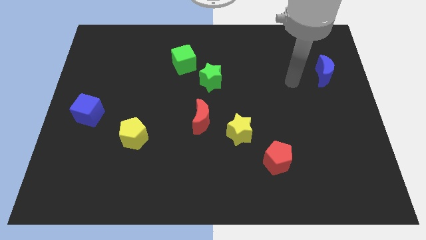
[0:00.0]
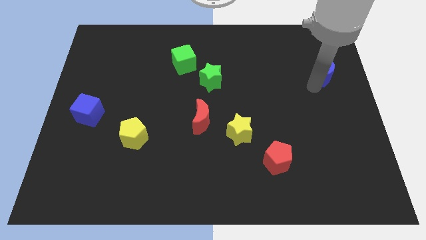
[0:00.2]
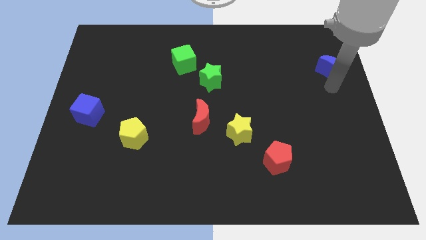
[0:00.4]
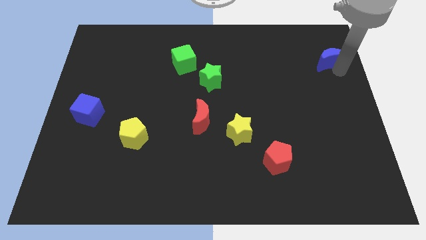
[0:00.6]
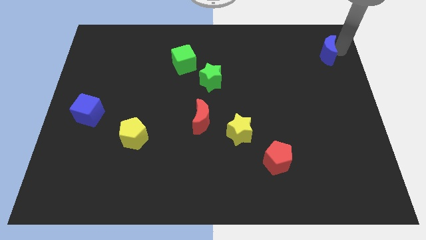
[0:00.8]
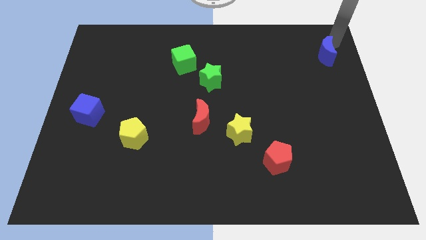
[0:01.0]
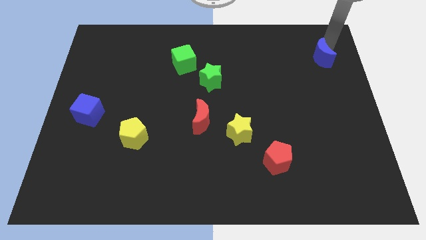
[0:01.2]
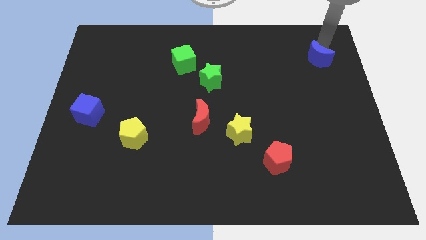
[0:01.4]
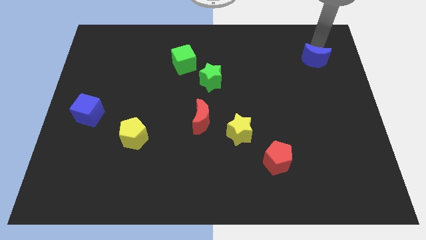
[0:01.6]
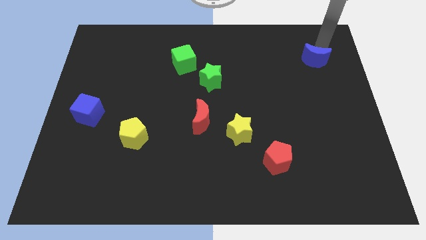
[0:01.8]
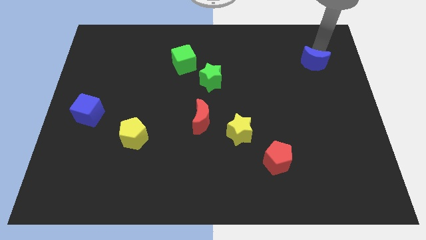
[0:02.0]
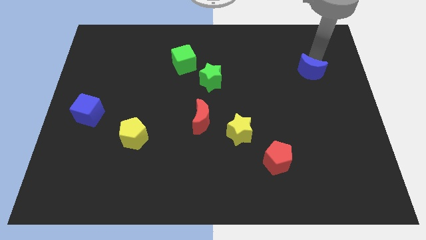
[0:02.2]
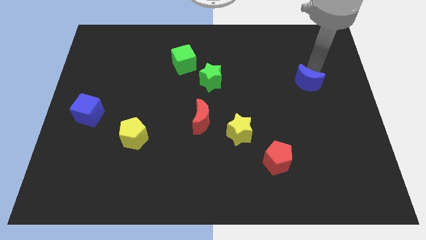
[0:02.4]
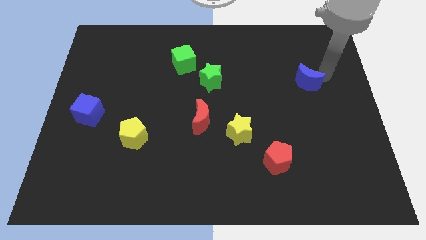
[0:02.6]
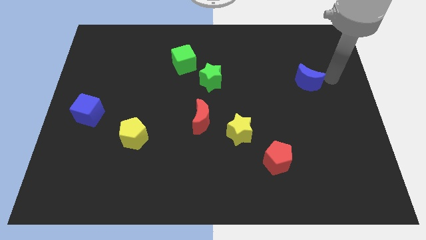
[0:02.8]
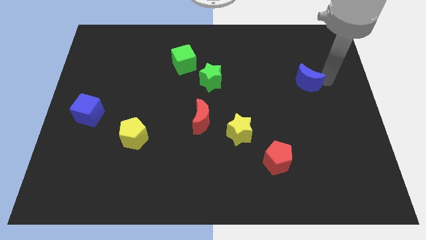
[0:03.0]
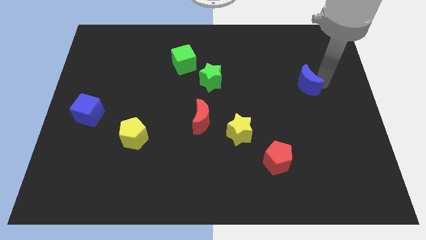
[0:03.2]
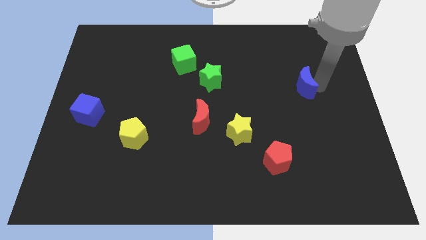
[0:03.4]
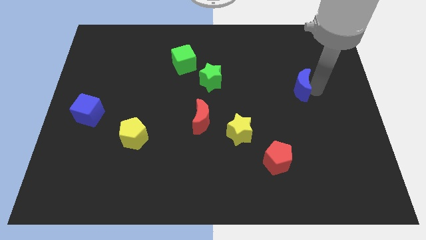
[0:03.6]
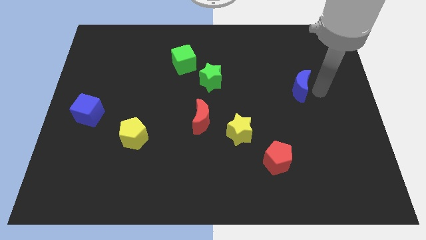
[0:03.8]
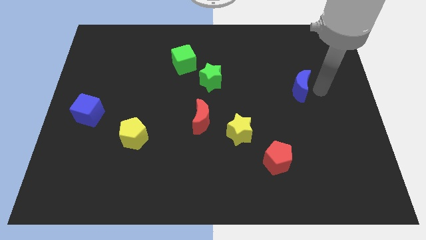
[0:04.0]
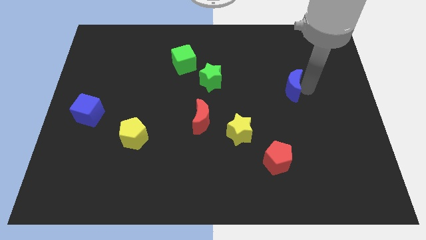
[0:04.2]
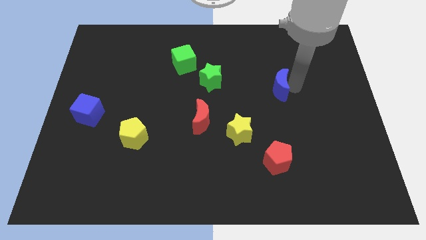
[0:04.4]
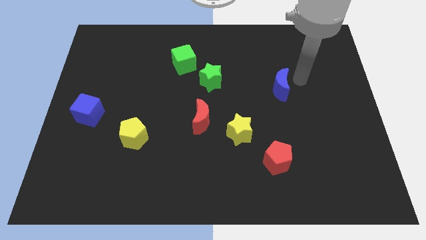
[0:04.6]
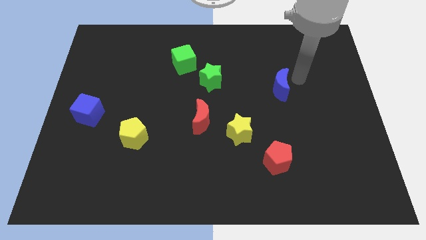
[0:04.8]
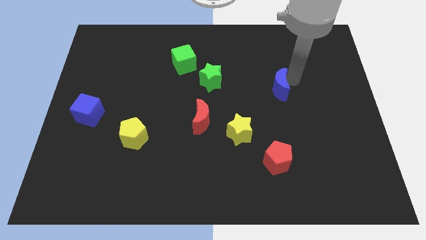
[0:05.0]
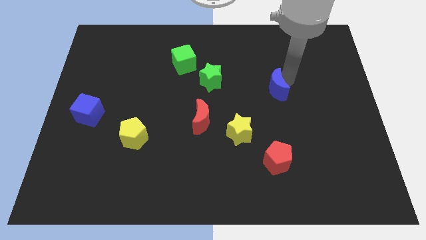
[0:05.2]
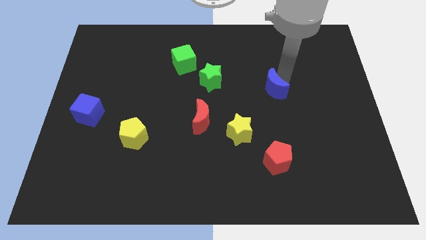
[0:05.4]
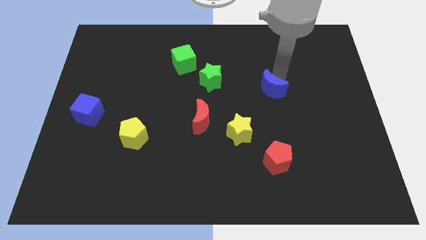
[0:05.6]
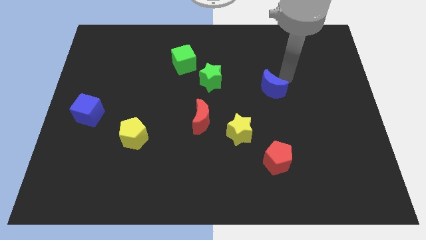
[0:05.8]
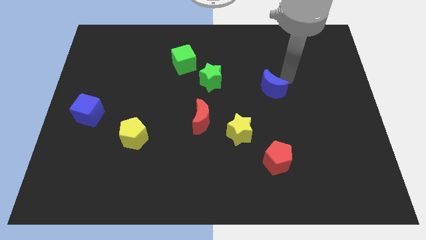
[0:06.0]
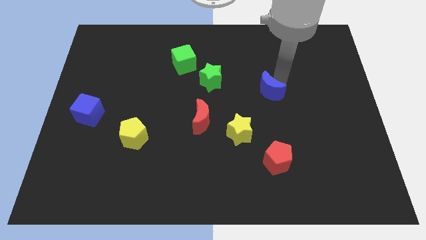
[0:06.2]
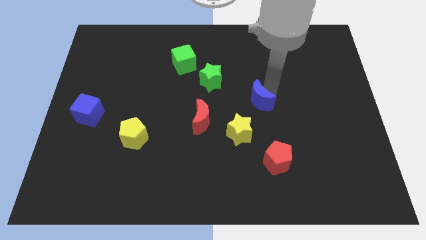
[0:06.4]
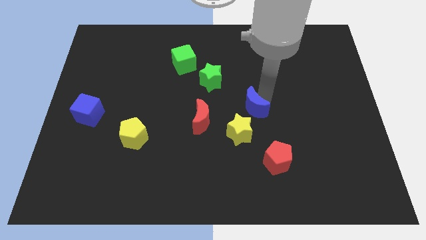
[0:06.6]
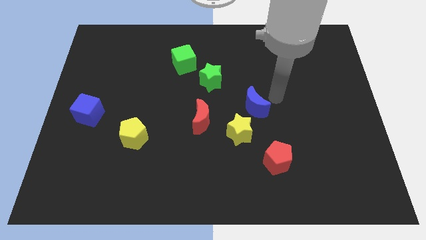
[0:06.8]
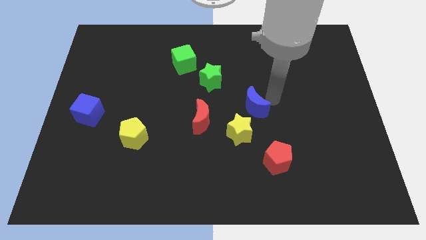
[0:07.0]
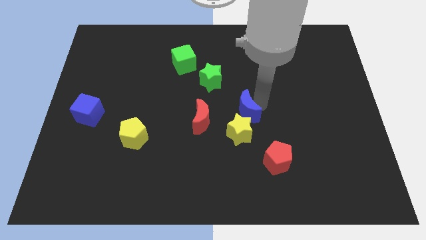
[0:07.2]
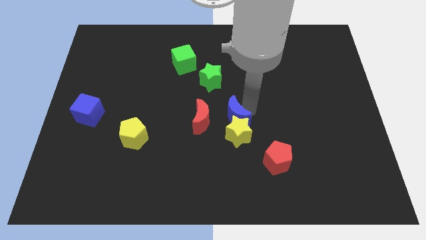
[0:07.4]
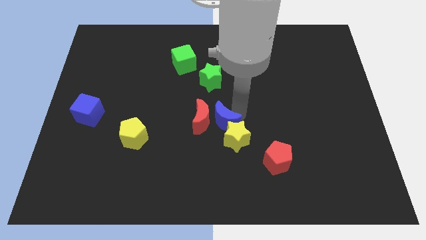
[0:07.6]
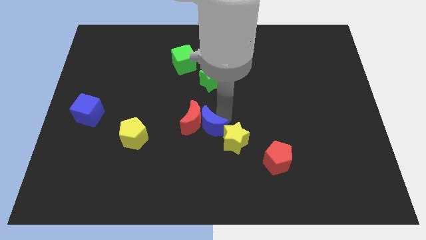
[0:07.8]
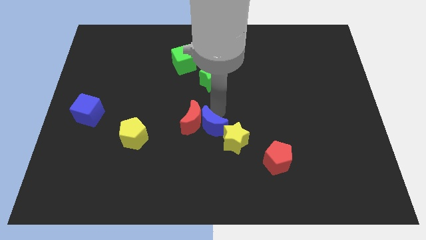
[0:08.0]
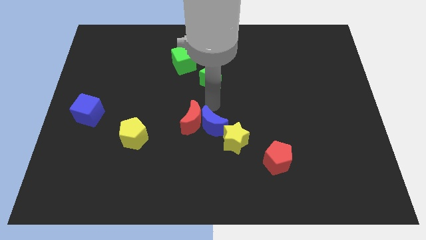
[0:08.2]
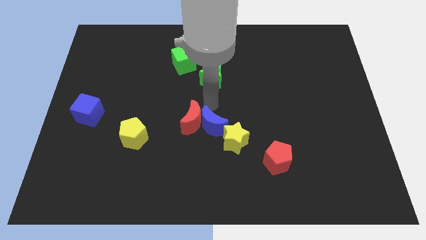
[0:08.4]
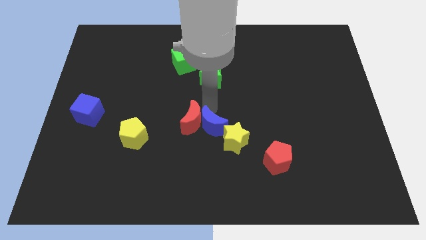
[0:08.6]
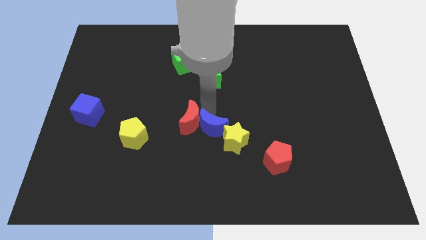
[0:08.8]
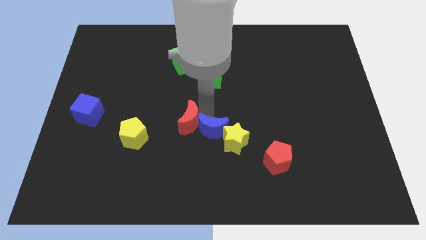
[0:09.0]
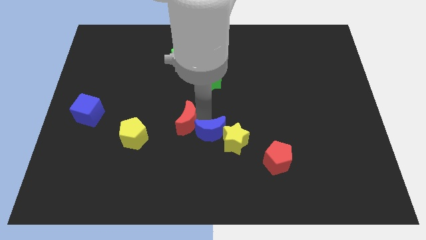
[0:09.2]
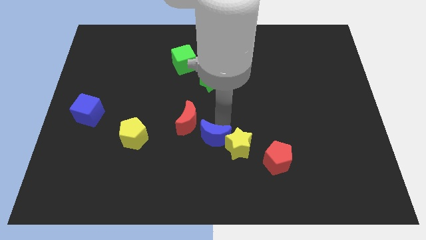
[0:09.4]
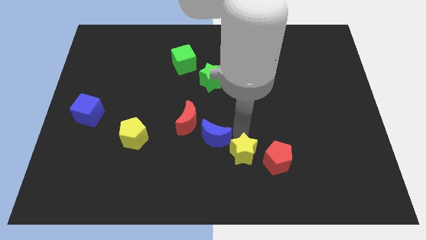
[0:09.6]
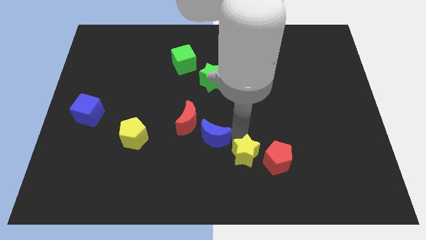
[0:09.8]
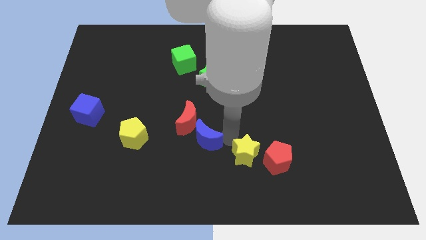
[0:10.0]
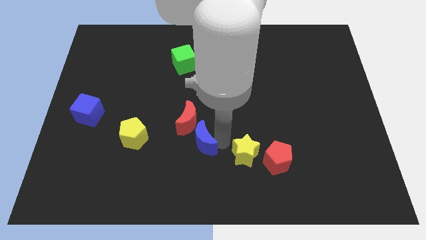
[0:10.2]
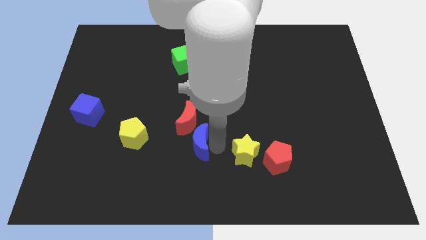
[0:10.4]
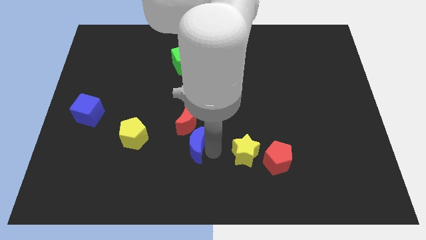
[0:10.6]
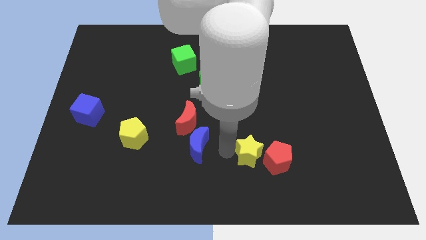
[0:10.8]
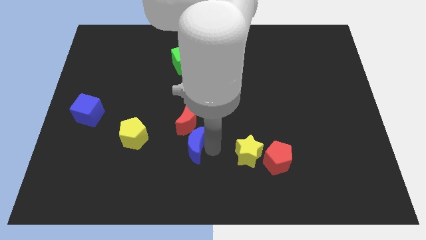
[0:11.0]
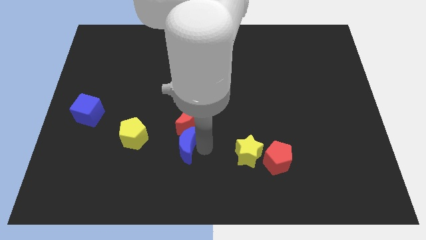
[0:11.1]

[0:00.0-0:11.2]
push the blue moon to the bottom left side of the red moon

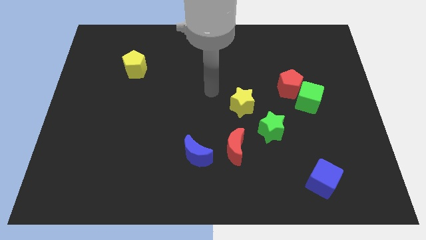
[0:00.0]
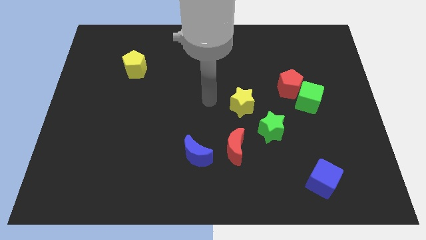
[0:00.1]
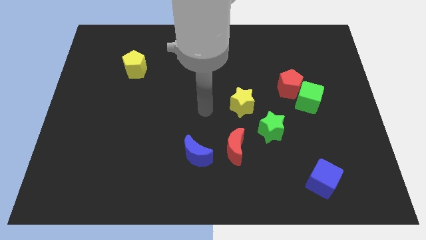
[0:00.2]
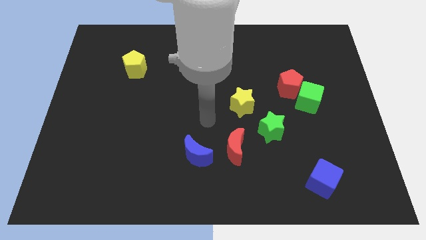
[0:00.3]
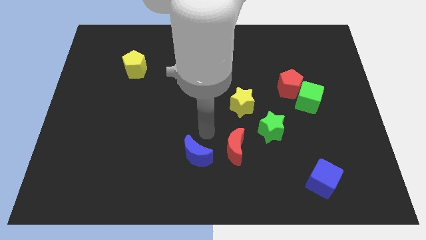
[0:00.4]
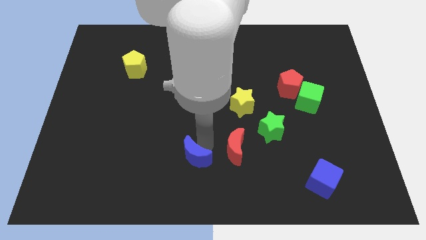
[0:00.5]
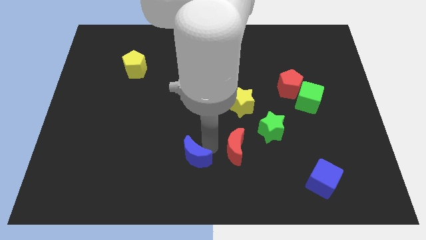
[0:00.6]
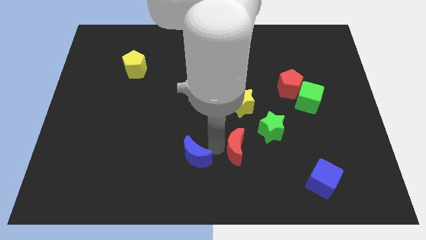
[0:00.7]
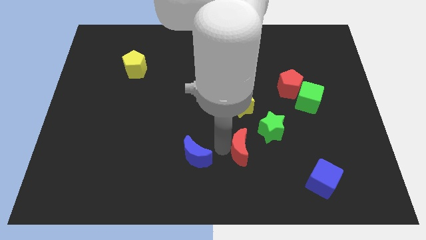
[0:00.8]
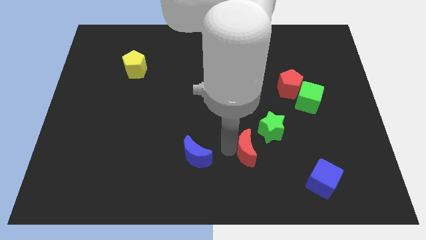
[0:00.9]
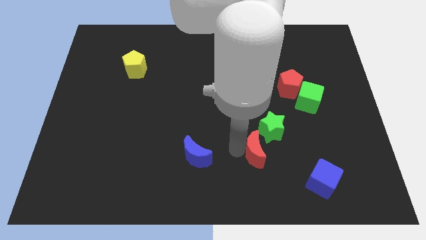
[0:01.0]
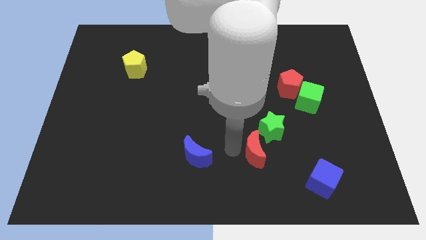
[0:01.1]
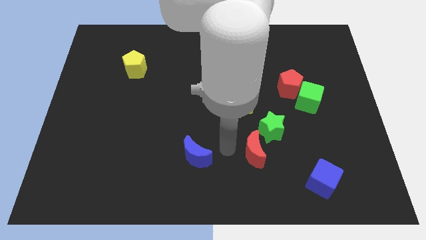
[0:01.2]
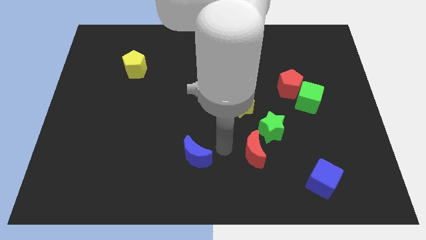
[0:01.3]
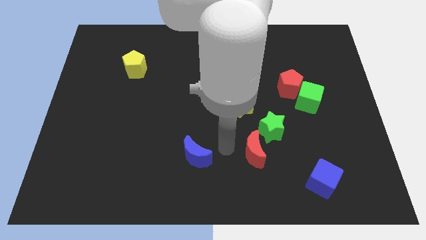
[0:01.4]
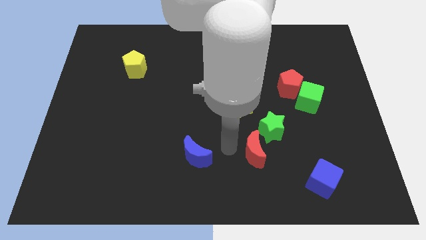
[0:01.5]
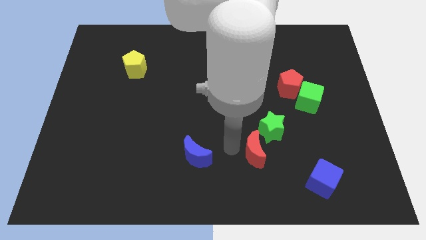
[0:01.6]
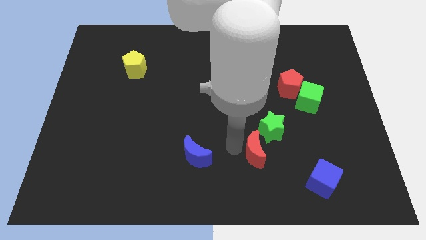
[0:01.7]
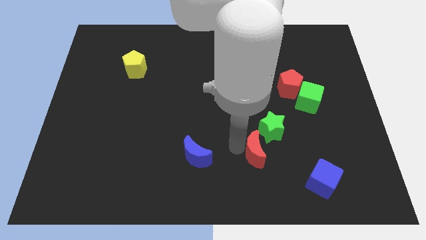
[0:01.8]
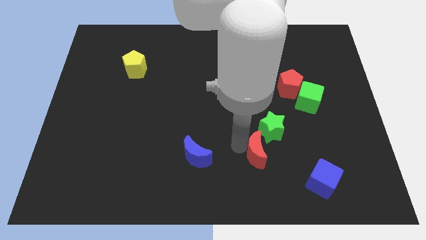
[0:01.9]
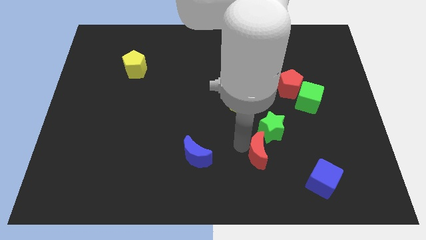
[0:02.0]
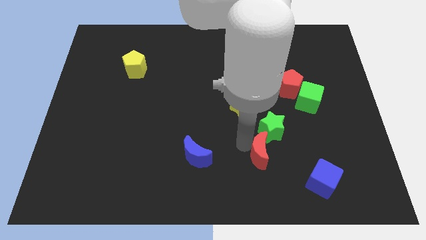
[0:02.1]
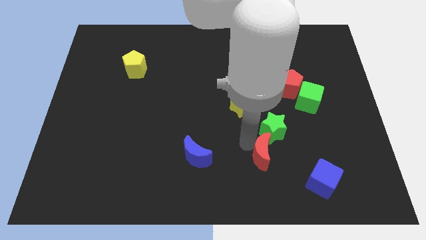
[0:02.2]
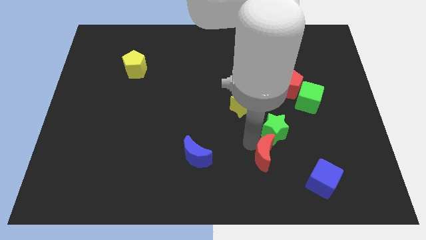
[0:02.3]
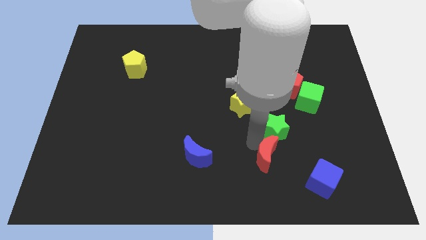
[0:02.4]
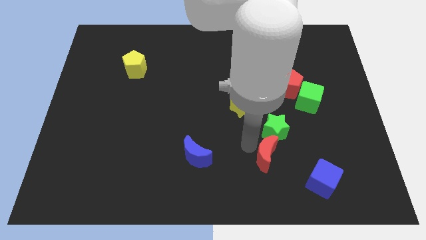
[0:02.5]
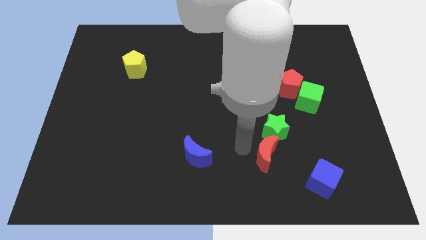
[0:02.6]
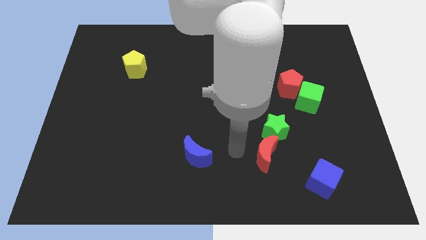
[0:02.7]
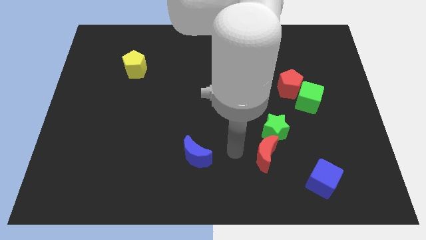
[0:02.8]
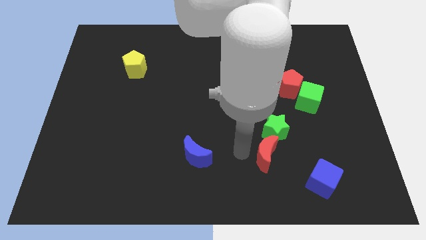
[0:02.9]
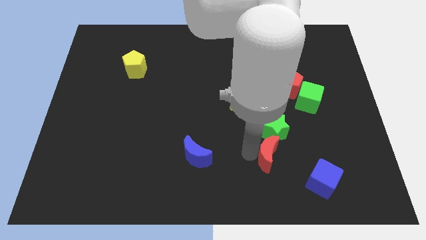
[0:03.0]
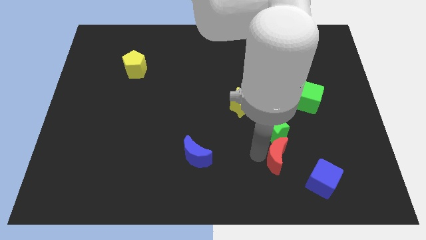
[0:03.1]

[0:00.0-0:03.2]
slide the red moon diagonally up and to the left of the blue cube
